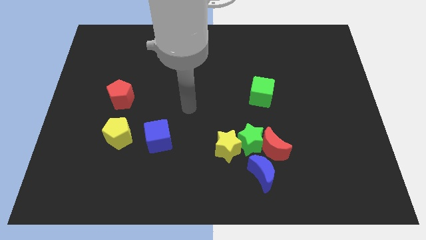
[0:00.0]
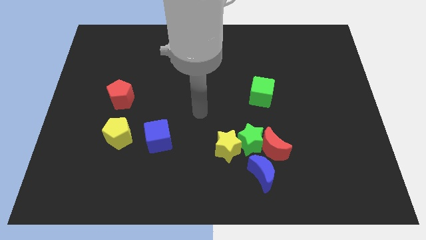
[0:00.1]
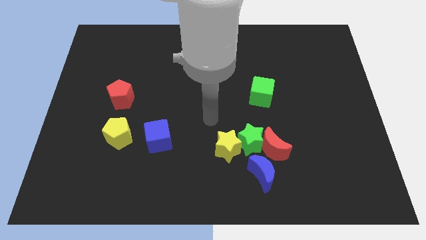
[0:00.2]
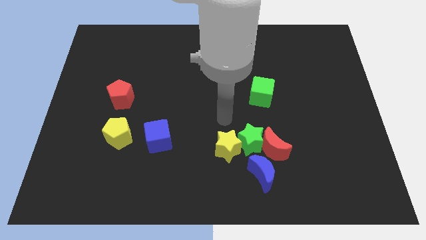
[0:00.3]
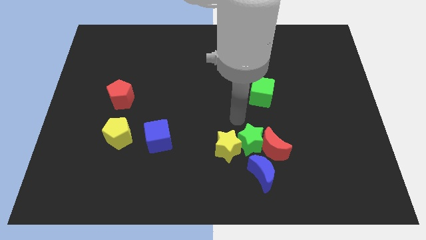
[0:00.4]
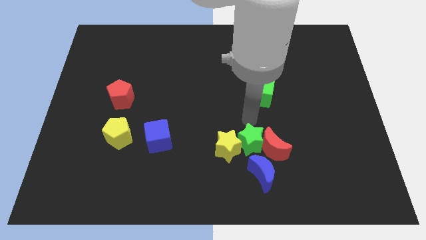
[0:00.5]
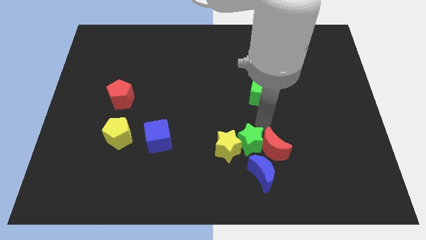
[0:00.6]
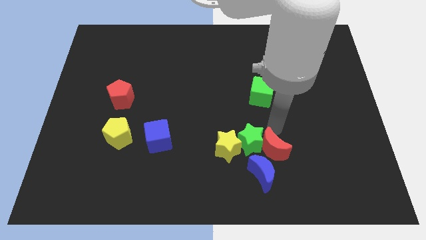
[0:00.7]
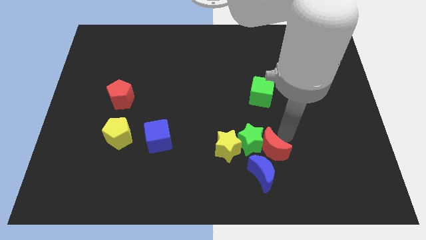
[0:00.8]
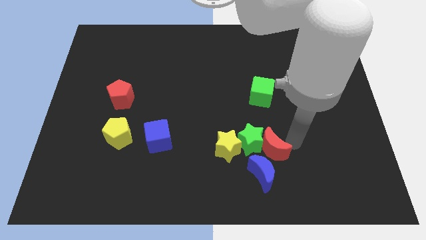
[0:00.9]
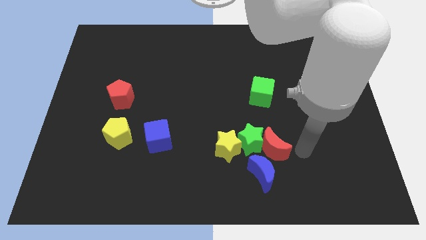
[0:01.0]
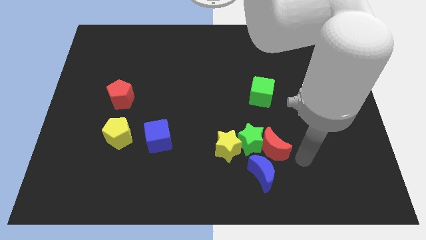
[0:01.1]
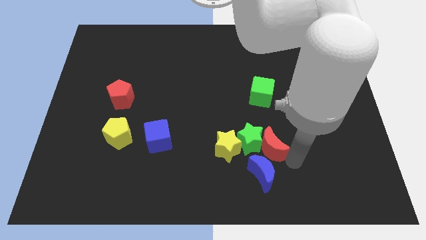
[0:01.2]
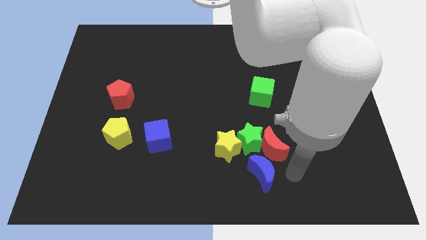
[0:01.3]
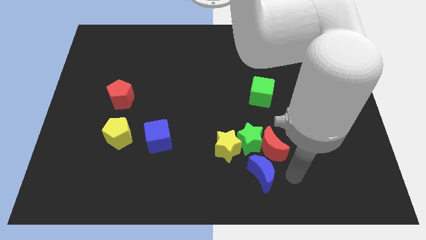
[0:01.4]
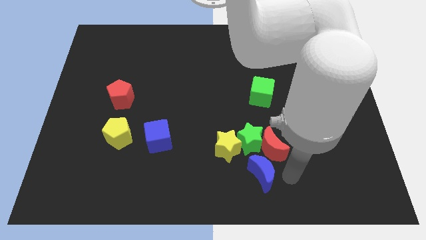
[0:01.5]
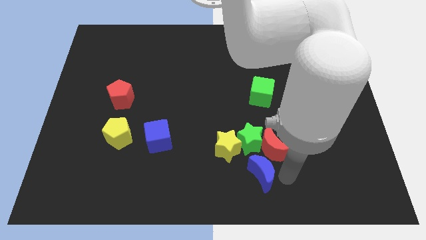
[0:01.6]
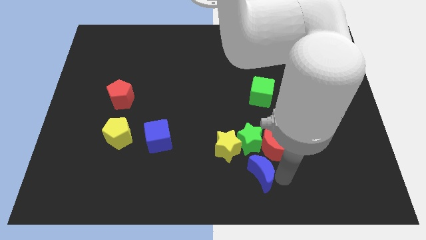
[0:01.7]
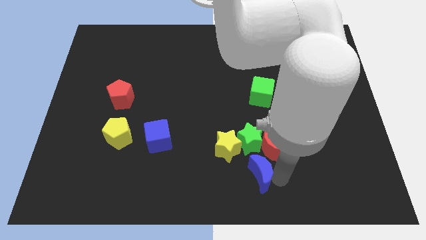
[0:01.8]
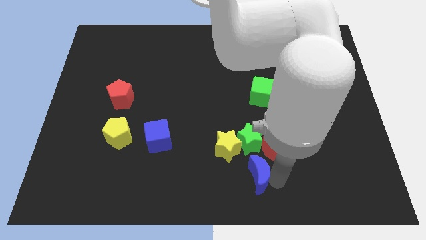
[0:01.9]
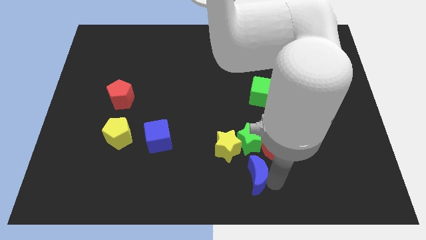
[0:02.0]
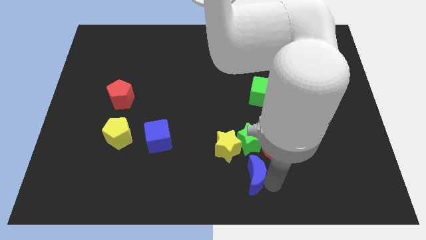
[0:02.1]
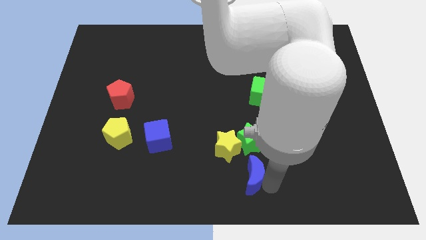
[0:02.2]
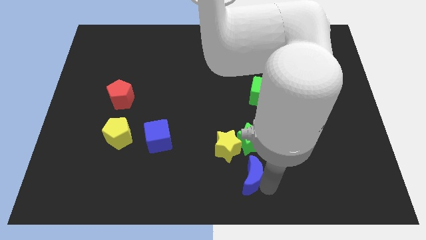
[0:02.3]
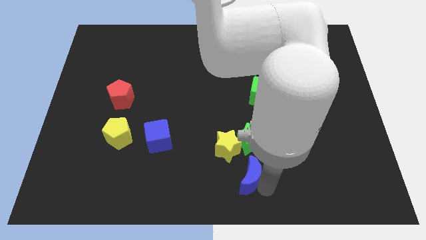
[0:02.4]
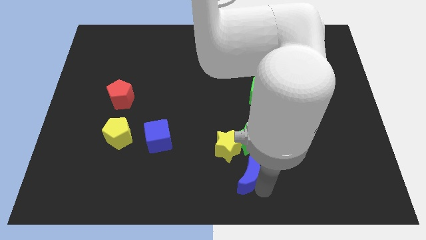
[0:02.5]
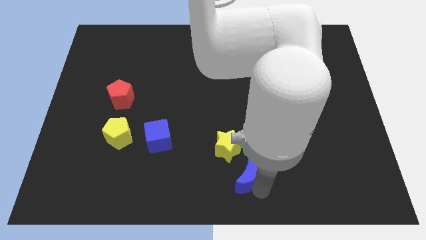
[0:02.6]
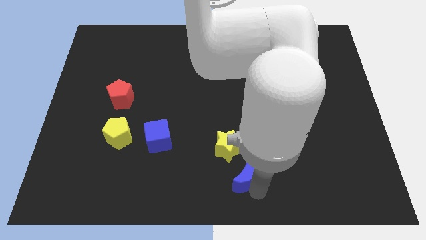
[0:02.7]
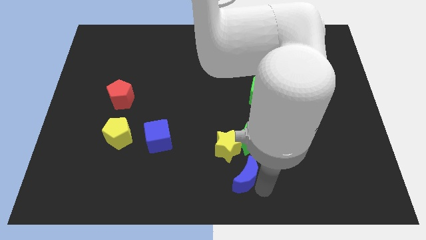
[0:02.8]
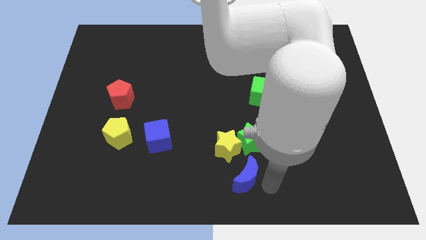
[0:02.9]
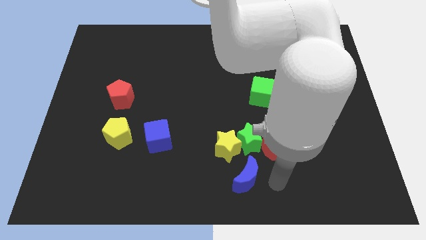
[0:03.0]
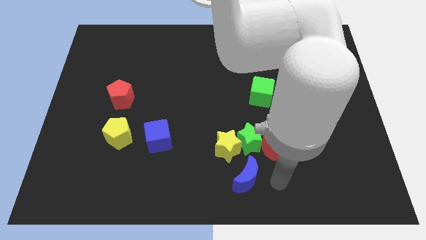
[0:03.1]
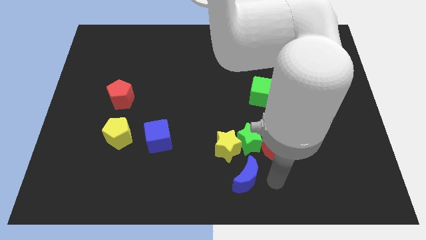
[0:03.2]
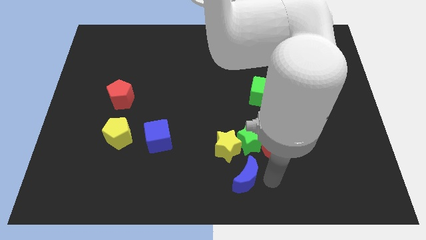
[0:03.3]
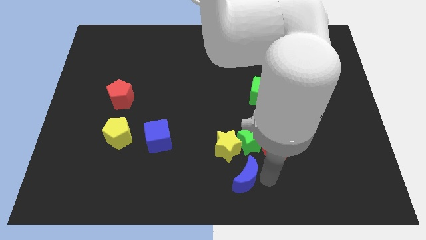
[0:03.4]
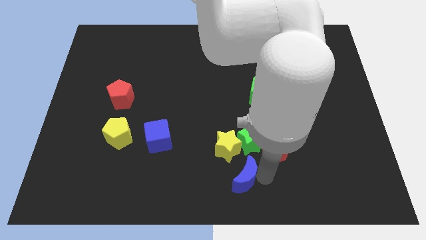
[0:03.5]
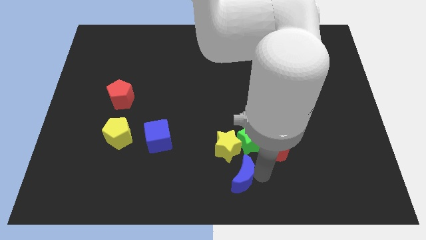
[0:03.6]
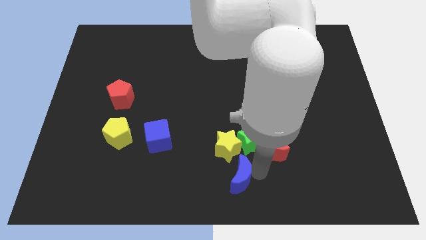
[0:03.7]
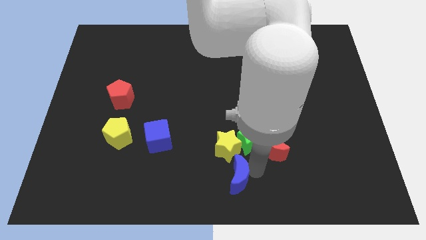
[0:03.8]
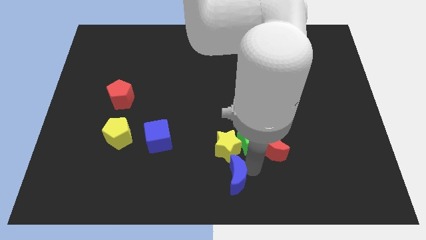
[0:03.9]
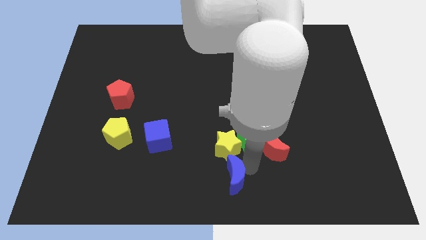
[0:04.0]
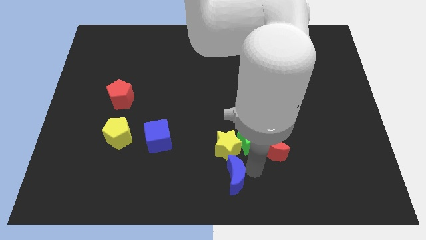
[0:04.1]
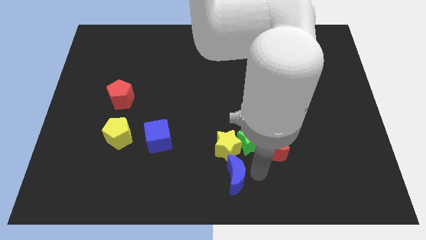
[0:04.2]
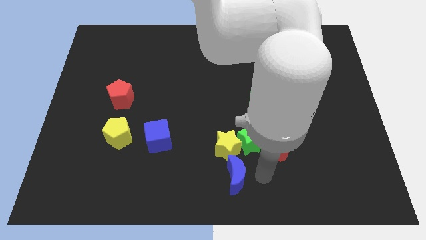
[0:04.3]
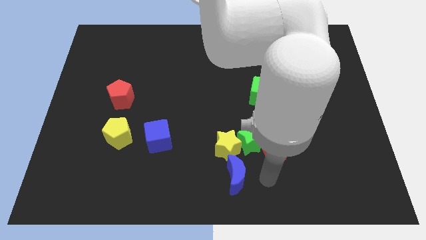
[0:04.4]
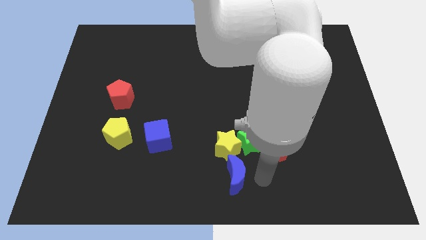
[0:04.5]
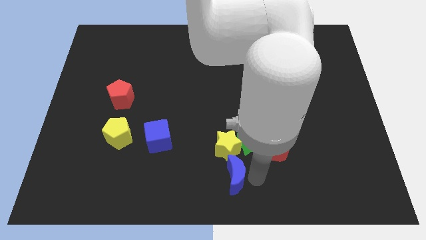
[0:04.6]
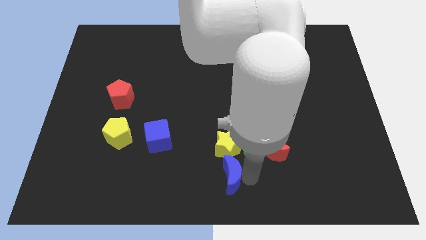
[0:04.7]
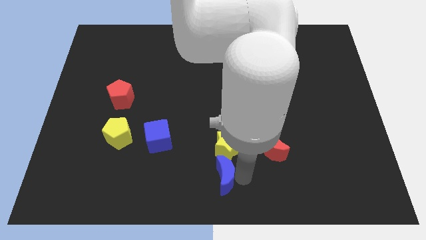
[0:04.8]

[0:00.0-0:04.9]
push the blue moon slightly left

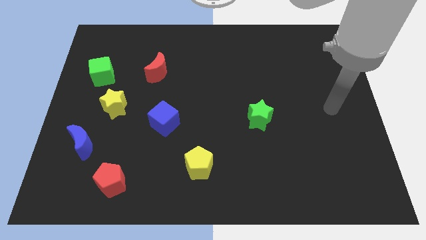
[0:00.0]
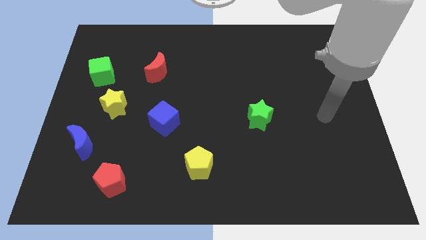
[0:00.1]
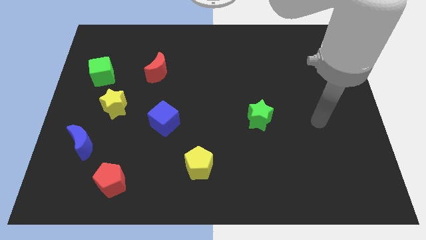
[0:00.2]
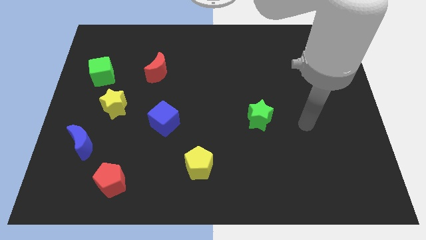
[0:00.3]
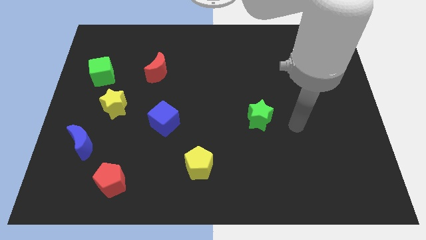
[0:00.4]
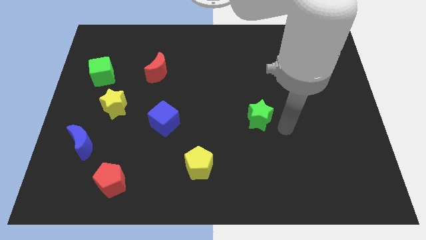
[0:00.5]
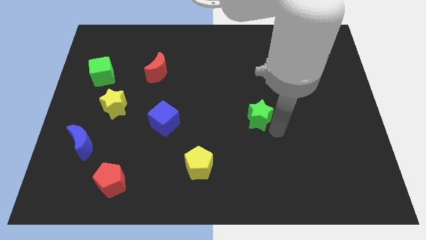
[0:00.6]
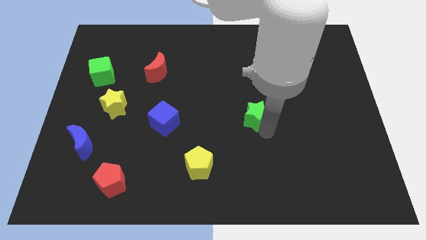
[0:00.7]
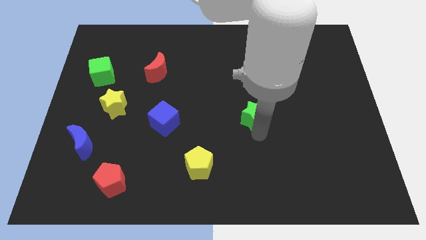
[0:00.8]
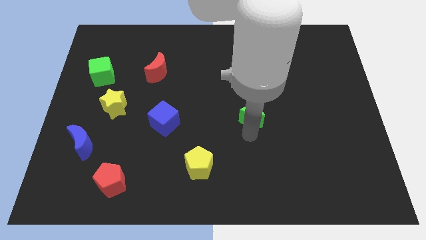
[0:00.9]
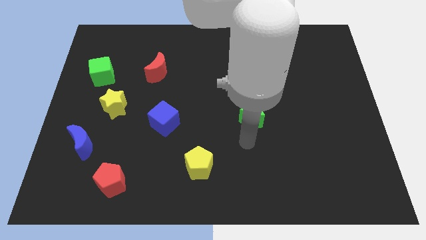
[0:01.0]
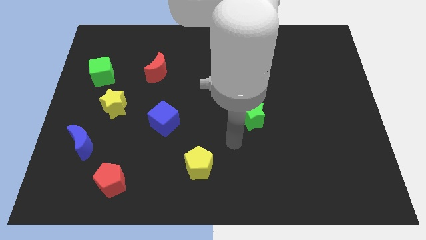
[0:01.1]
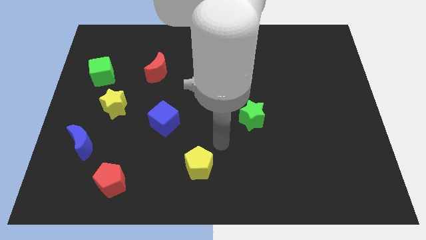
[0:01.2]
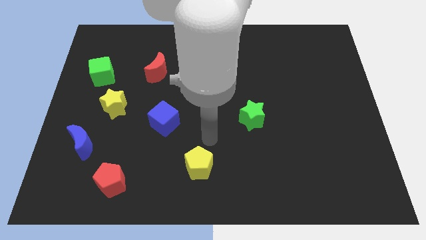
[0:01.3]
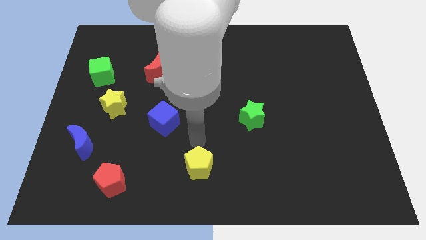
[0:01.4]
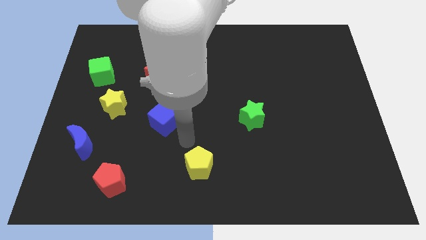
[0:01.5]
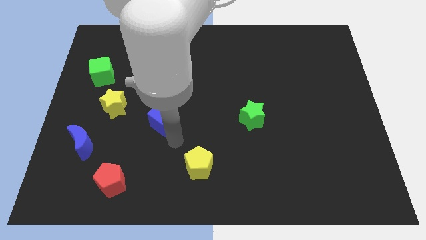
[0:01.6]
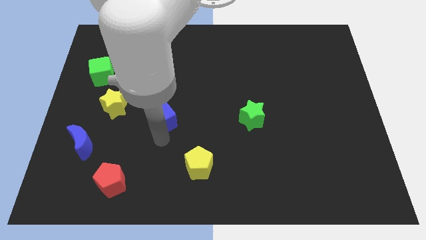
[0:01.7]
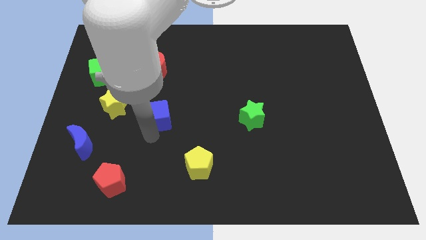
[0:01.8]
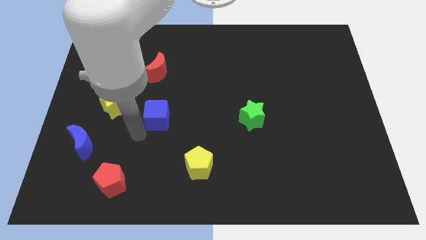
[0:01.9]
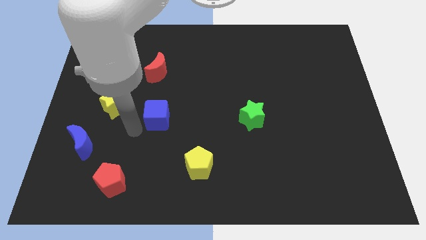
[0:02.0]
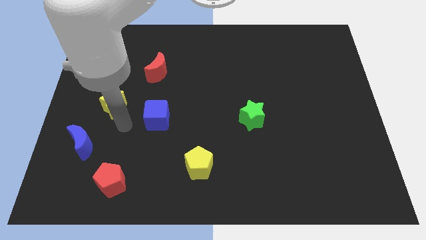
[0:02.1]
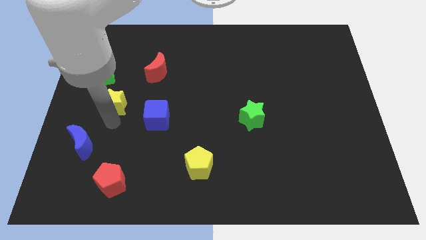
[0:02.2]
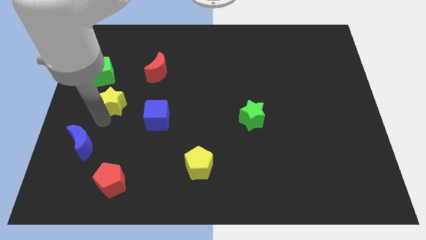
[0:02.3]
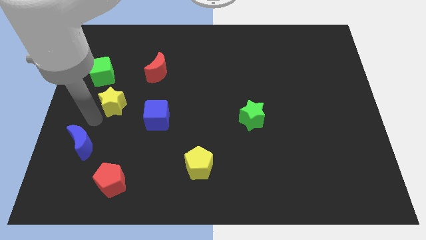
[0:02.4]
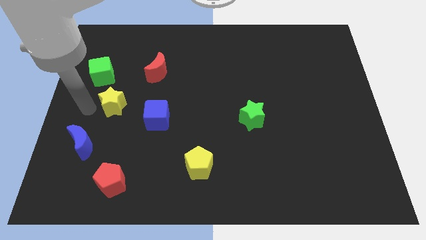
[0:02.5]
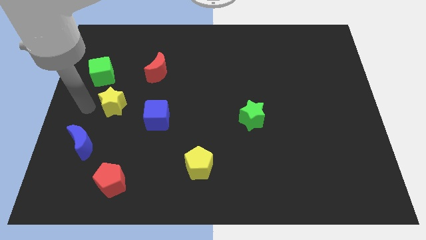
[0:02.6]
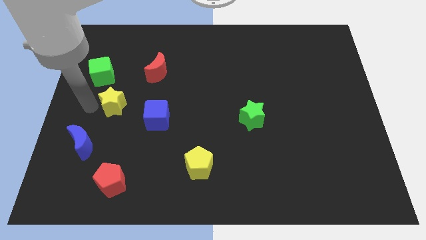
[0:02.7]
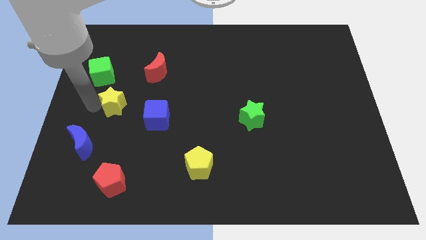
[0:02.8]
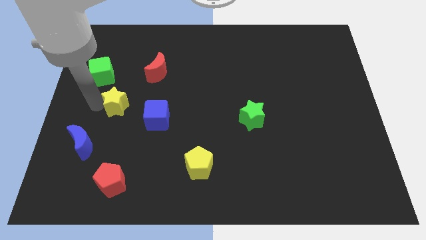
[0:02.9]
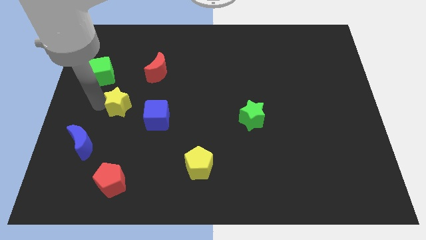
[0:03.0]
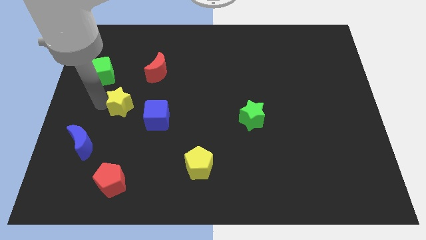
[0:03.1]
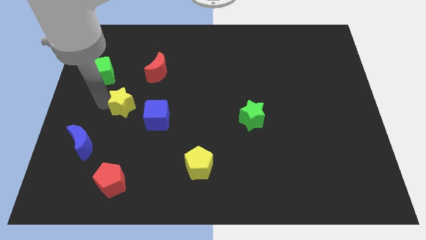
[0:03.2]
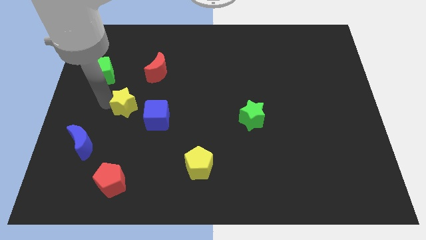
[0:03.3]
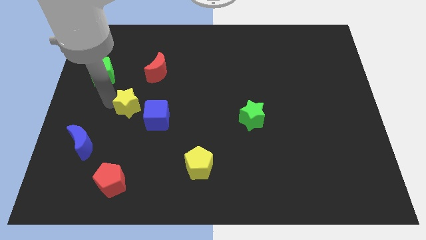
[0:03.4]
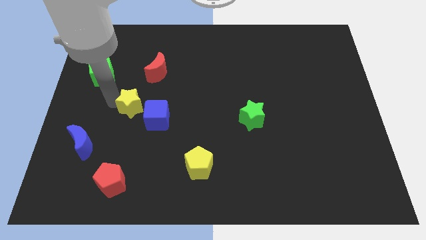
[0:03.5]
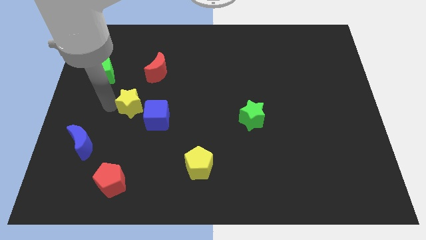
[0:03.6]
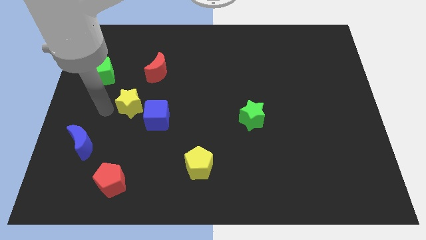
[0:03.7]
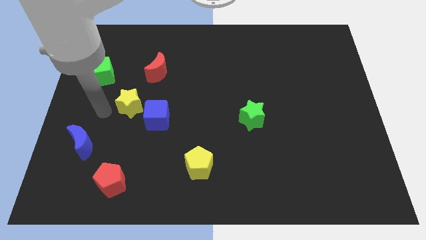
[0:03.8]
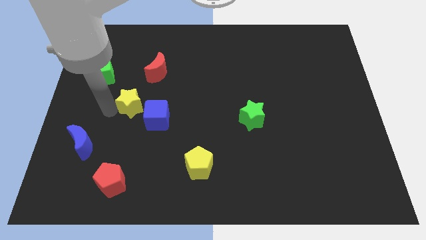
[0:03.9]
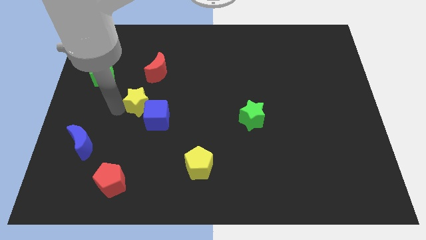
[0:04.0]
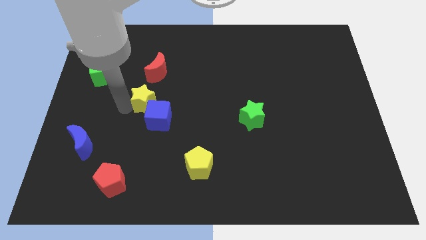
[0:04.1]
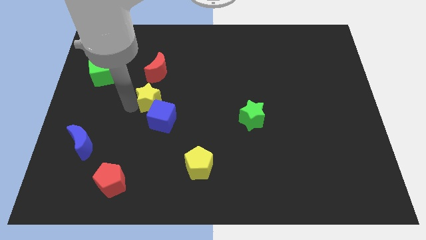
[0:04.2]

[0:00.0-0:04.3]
push the yellow star to the right a little bit
